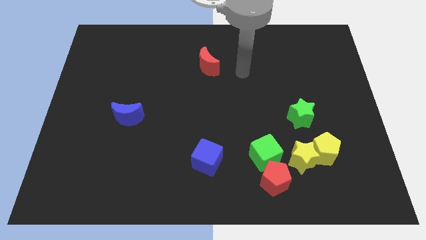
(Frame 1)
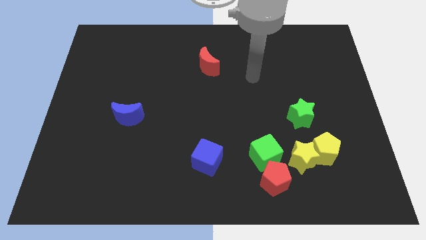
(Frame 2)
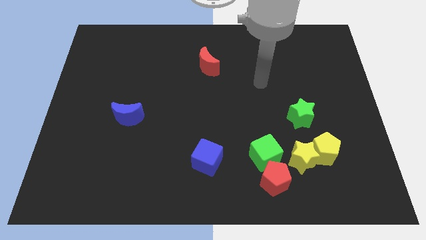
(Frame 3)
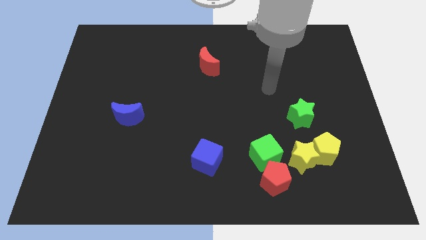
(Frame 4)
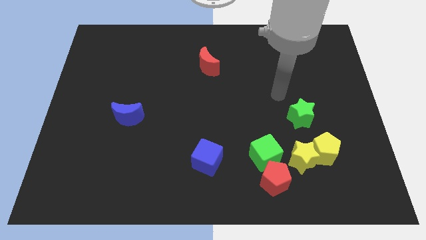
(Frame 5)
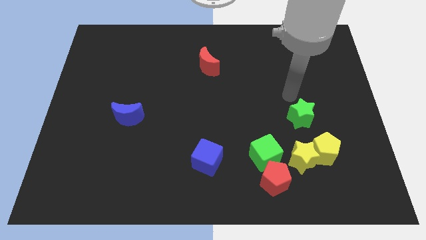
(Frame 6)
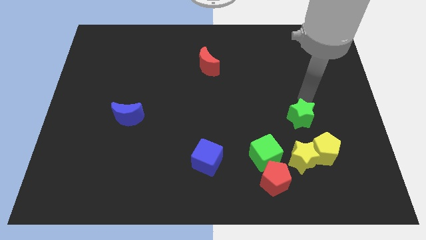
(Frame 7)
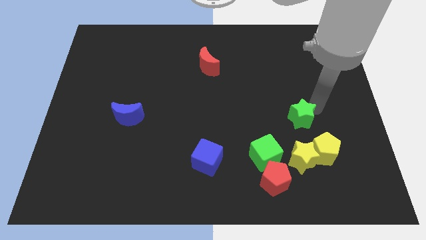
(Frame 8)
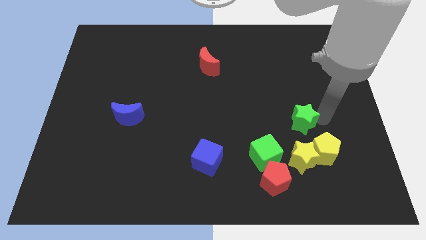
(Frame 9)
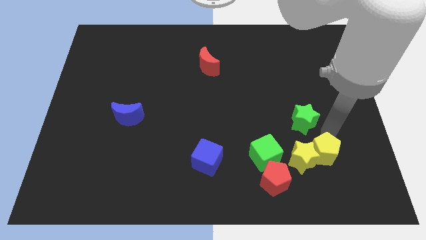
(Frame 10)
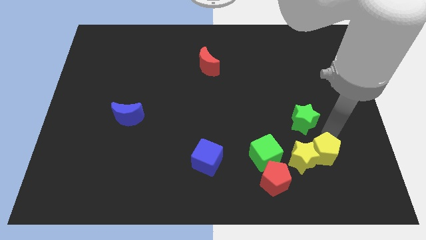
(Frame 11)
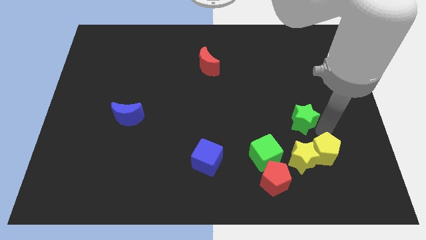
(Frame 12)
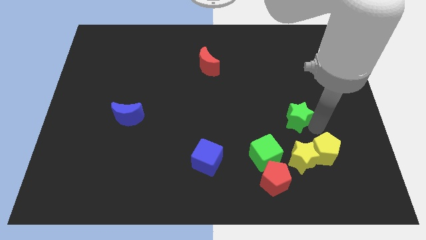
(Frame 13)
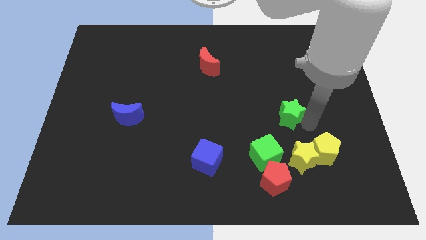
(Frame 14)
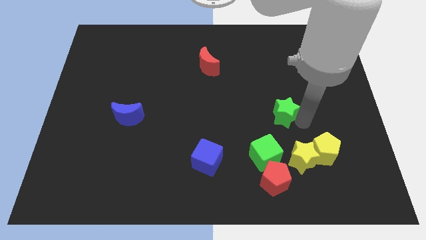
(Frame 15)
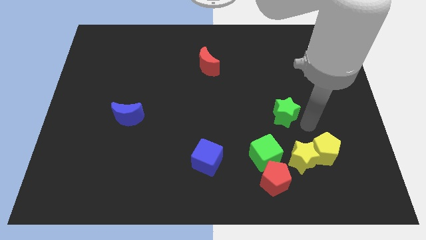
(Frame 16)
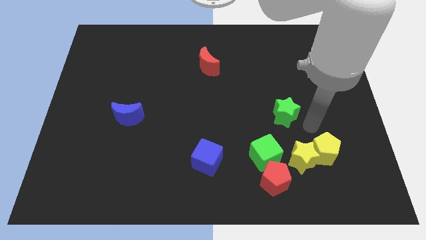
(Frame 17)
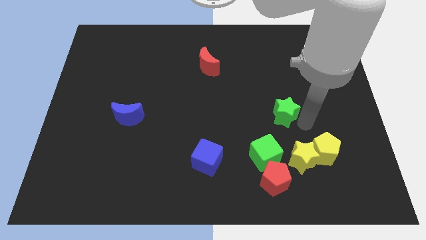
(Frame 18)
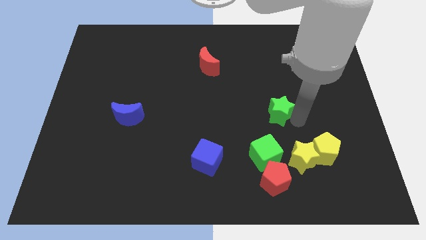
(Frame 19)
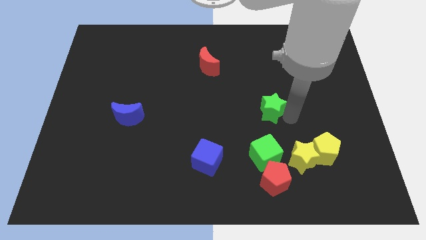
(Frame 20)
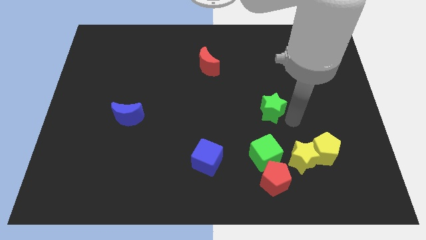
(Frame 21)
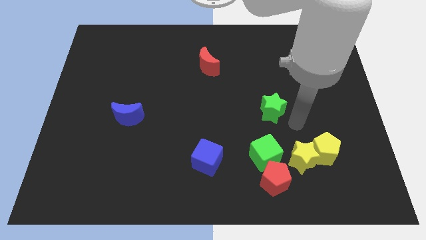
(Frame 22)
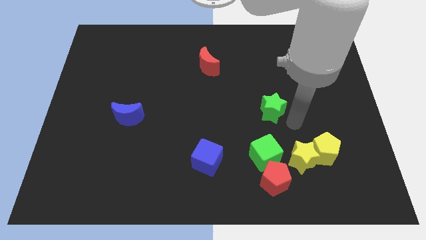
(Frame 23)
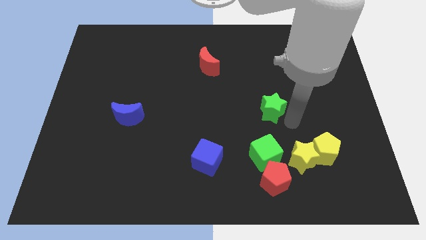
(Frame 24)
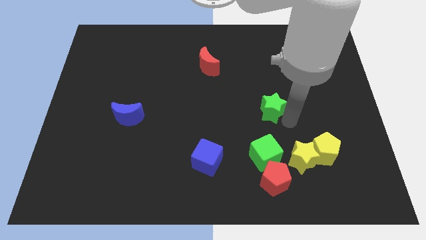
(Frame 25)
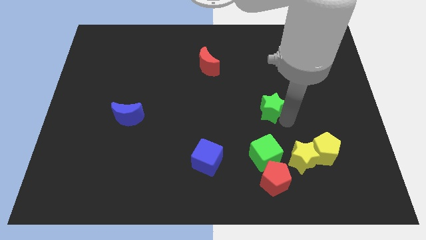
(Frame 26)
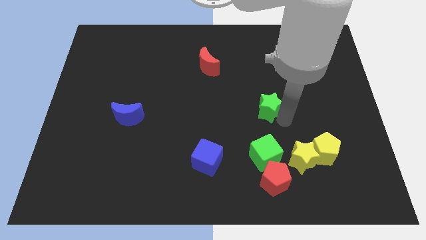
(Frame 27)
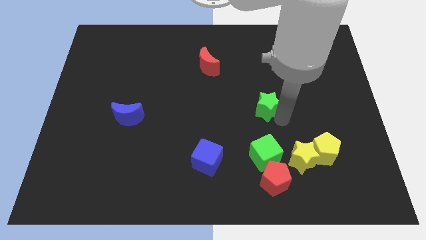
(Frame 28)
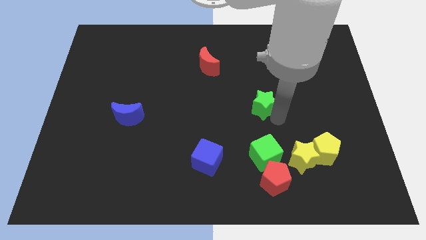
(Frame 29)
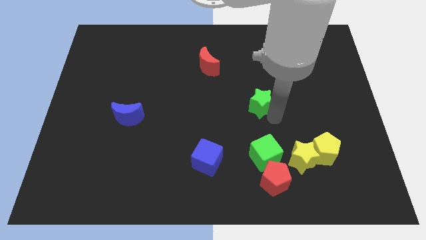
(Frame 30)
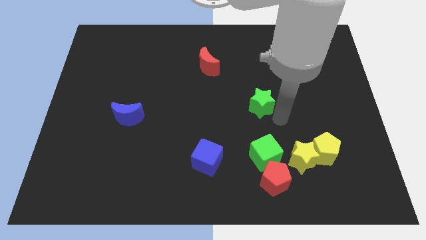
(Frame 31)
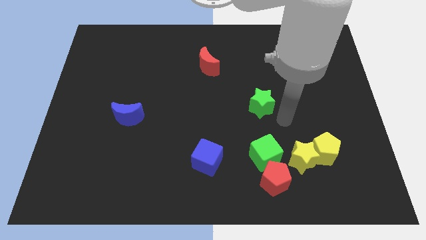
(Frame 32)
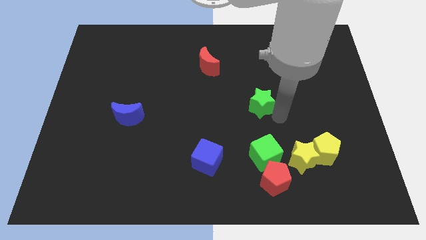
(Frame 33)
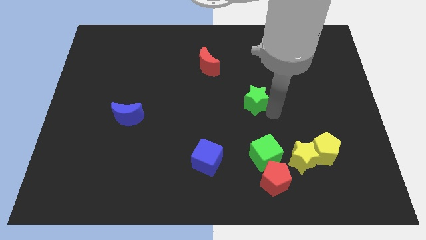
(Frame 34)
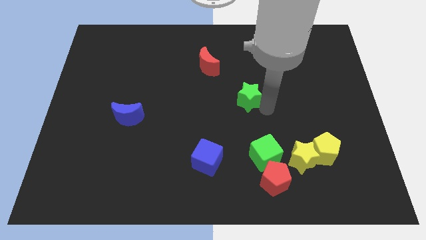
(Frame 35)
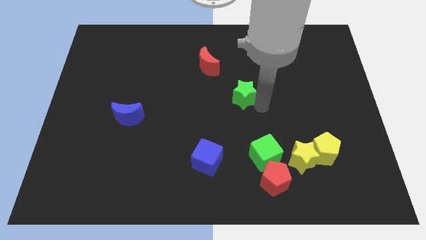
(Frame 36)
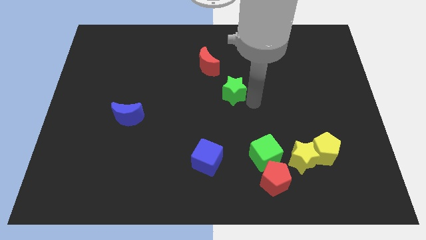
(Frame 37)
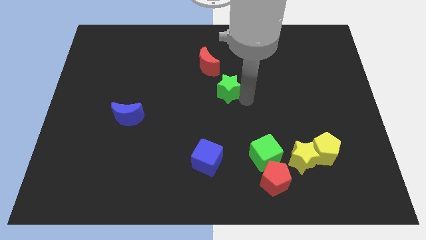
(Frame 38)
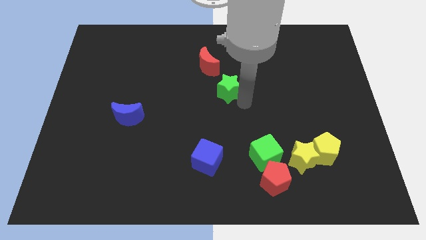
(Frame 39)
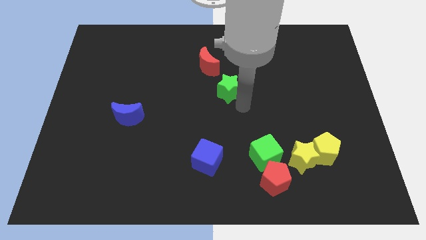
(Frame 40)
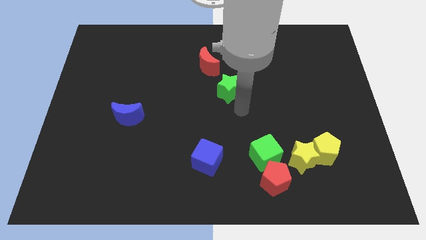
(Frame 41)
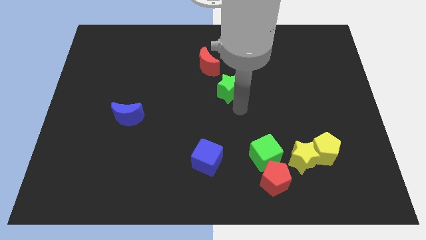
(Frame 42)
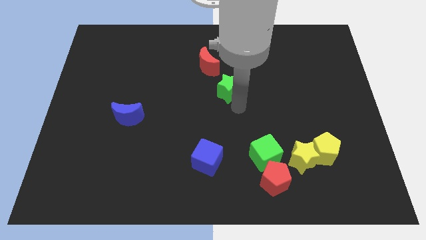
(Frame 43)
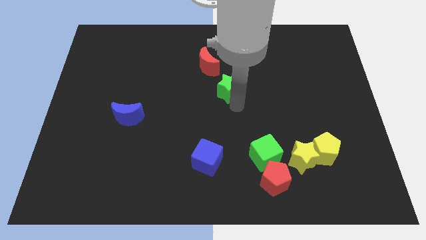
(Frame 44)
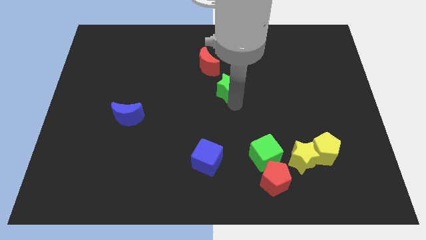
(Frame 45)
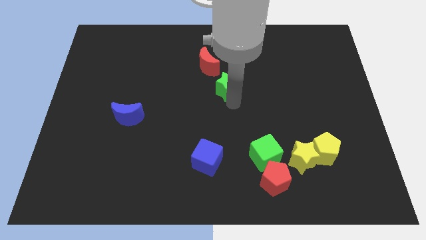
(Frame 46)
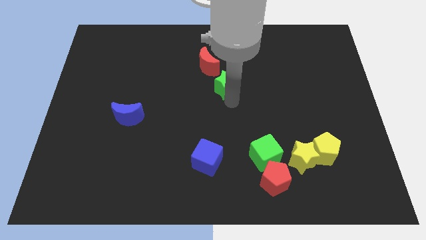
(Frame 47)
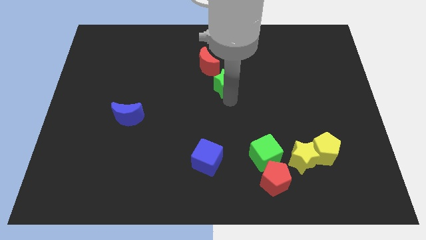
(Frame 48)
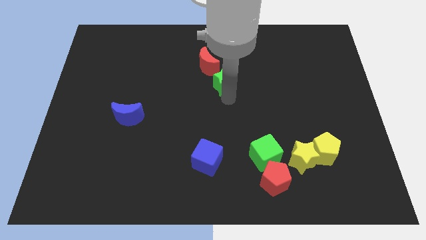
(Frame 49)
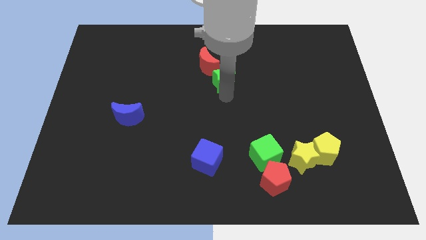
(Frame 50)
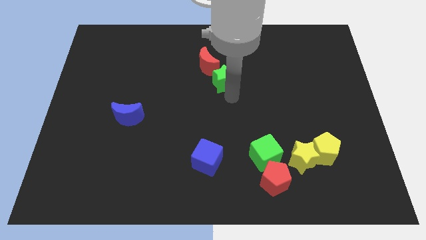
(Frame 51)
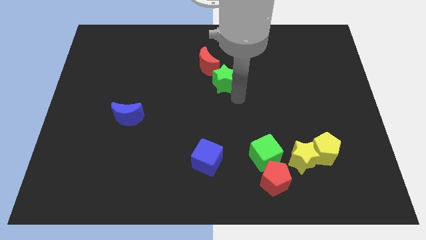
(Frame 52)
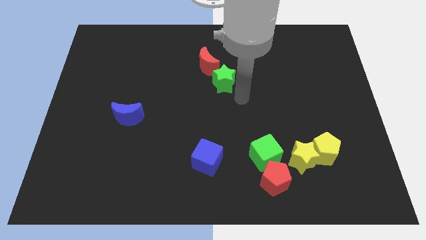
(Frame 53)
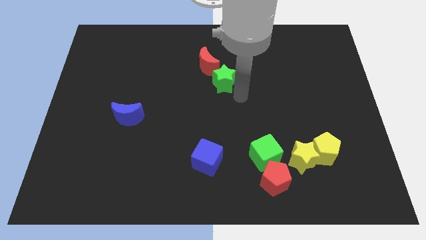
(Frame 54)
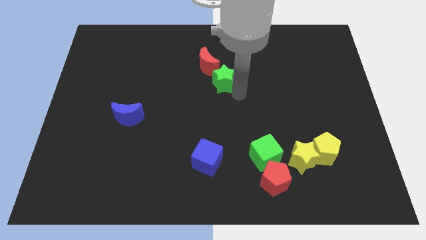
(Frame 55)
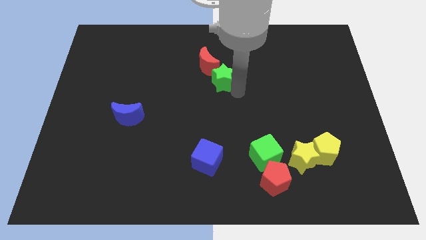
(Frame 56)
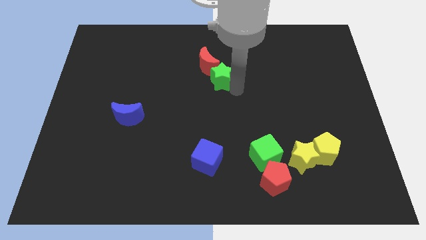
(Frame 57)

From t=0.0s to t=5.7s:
move the green star next to the red moon

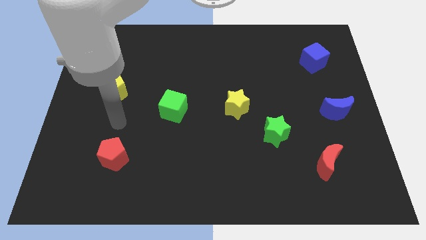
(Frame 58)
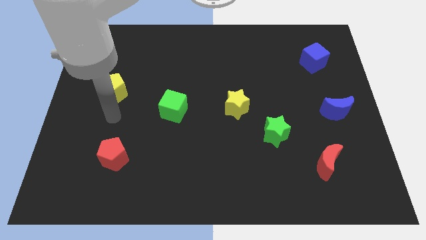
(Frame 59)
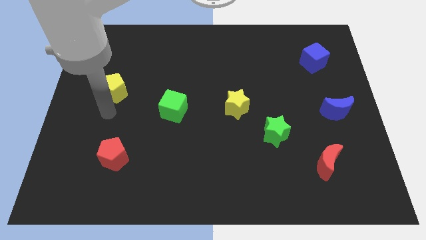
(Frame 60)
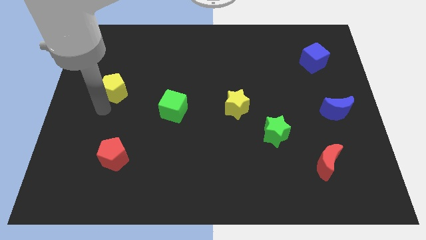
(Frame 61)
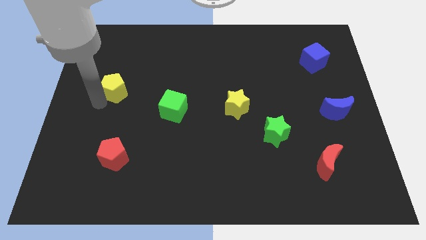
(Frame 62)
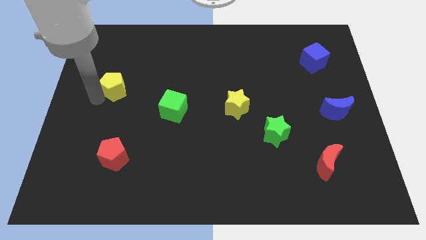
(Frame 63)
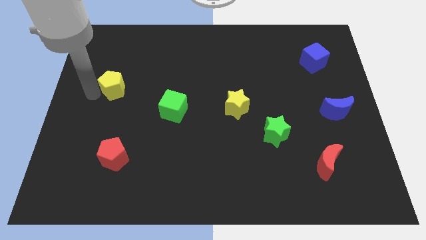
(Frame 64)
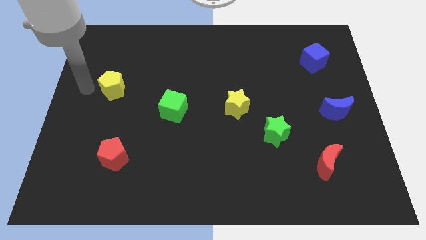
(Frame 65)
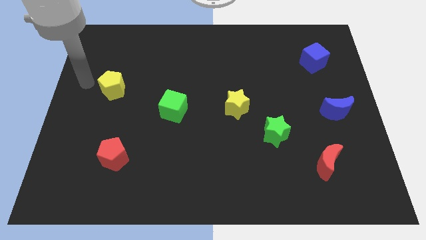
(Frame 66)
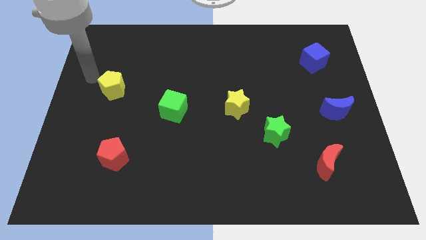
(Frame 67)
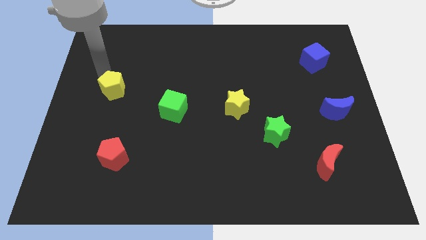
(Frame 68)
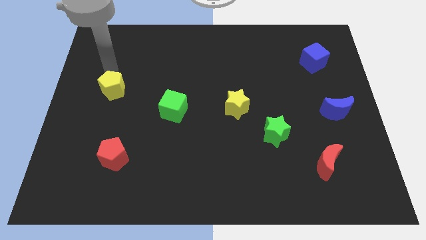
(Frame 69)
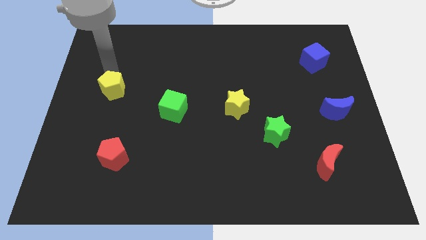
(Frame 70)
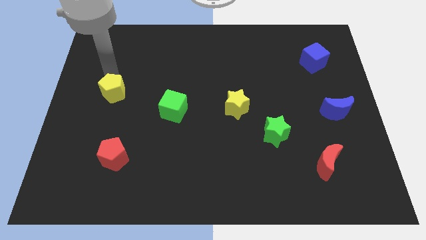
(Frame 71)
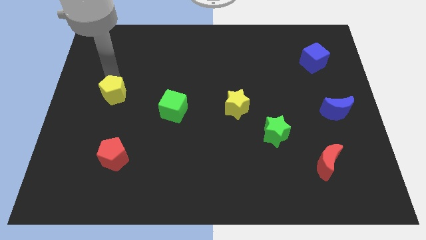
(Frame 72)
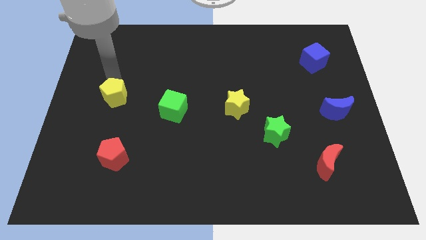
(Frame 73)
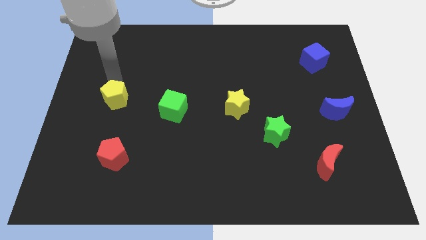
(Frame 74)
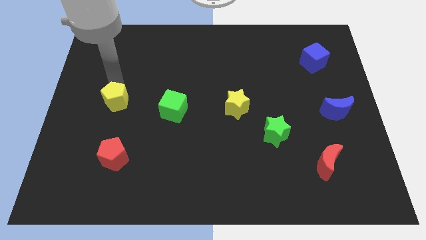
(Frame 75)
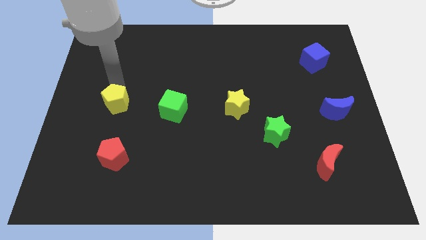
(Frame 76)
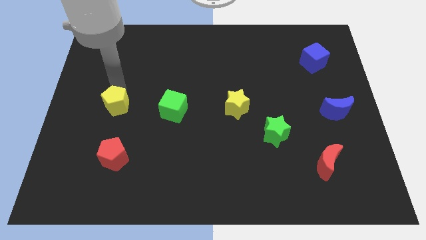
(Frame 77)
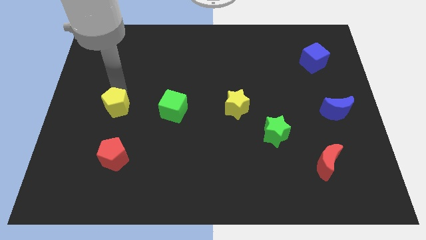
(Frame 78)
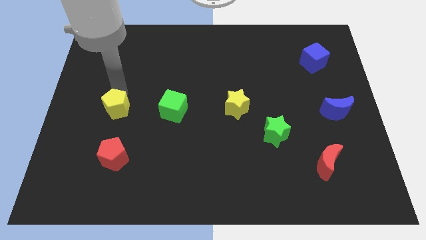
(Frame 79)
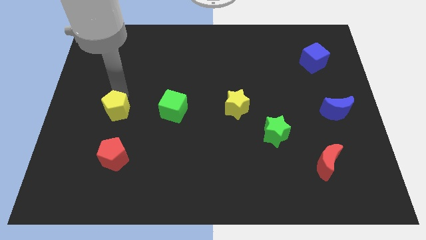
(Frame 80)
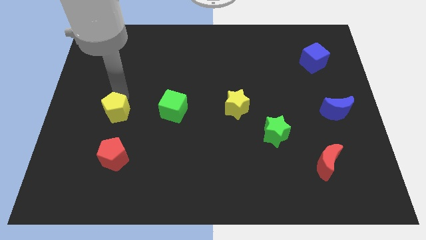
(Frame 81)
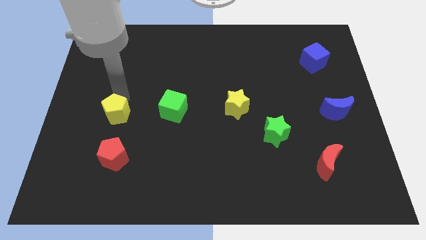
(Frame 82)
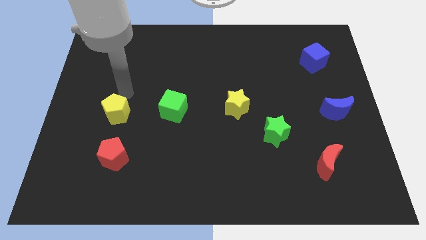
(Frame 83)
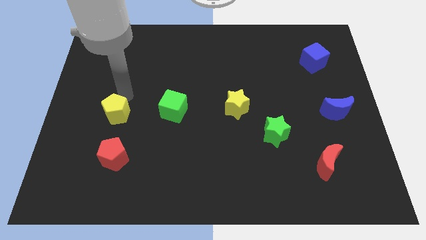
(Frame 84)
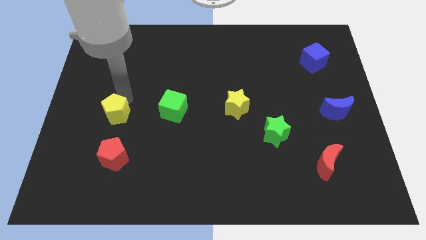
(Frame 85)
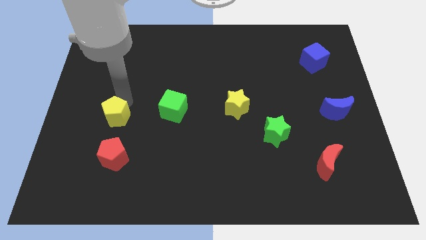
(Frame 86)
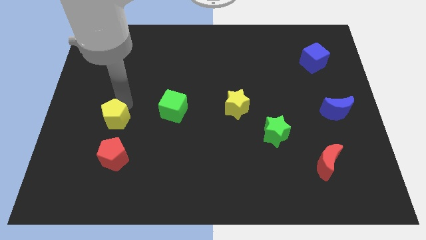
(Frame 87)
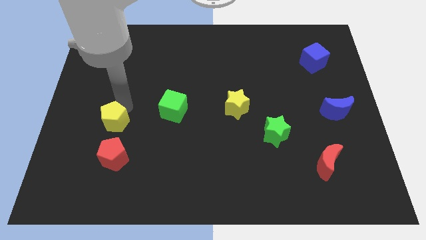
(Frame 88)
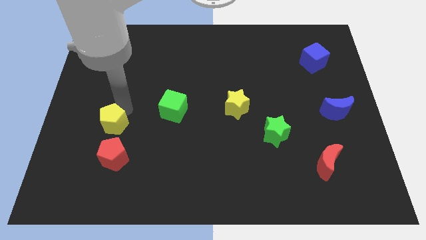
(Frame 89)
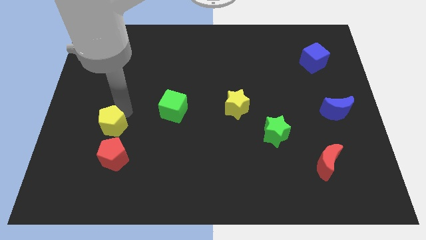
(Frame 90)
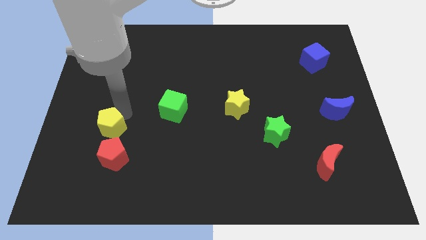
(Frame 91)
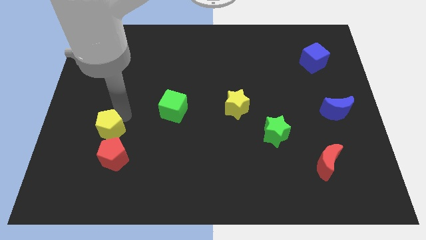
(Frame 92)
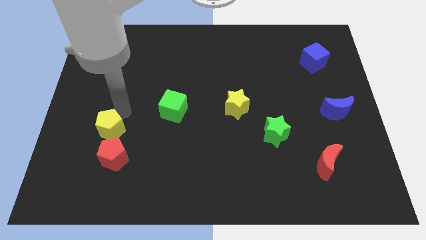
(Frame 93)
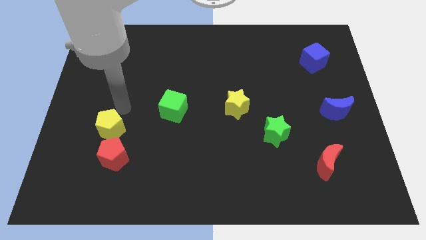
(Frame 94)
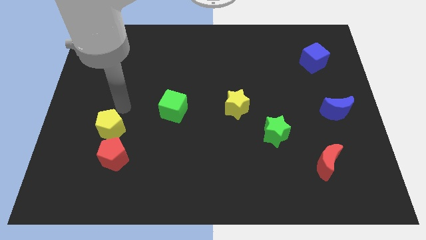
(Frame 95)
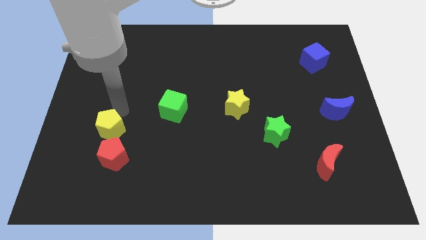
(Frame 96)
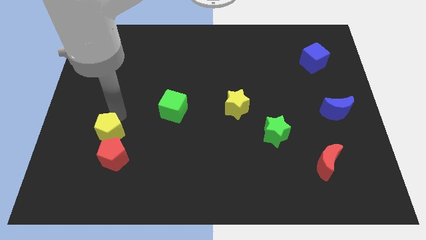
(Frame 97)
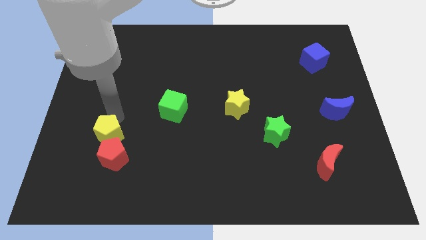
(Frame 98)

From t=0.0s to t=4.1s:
slide the yellow pentagon close to the red pentagon
